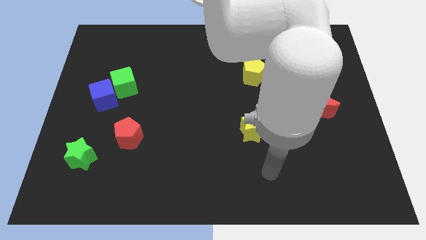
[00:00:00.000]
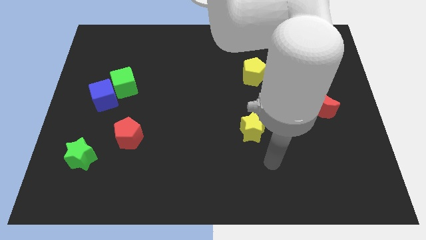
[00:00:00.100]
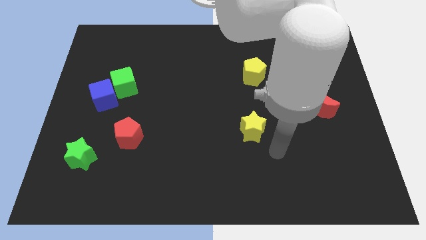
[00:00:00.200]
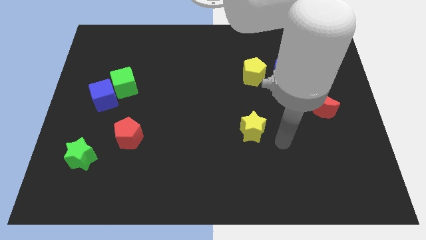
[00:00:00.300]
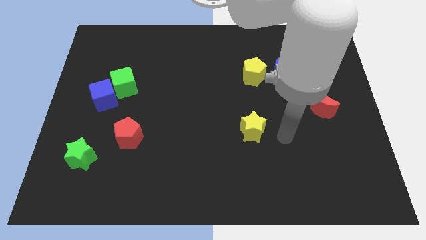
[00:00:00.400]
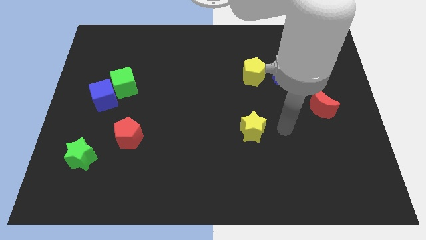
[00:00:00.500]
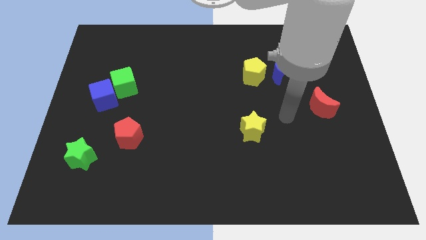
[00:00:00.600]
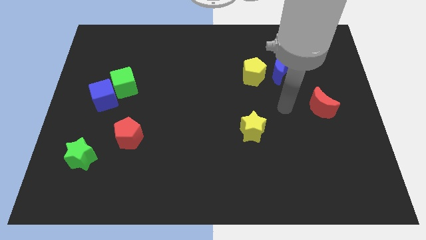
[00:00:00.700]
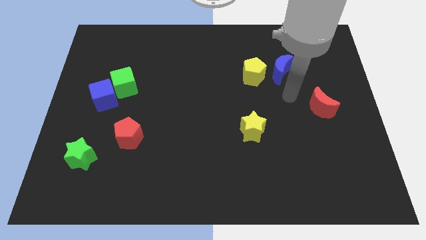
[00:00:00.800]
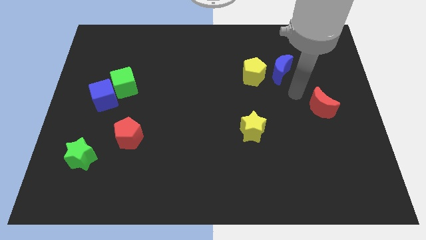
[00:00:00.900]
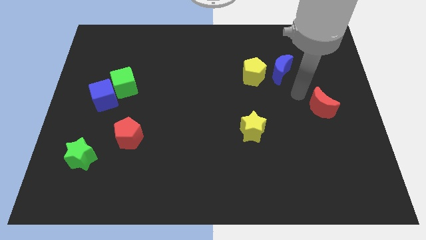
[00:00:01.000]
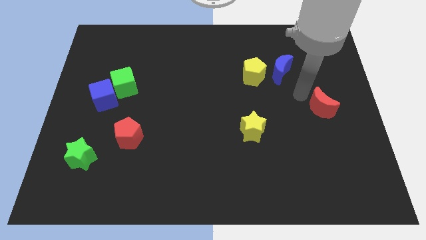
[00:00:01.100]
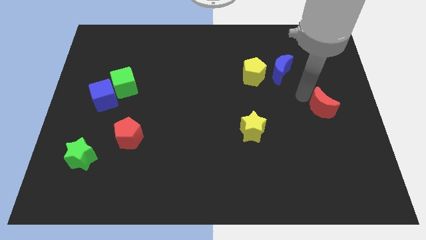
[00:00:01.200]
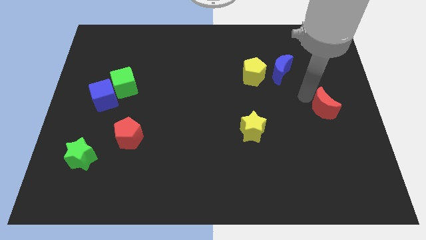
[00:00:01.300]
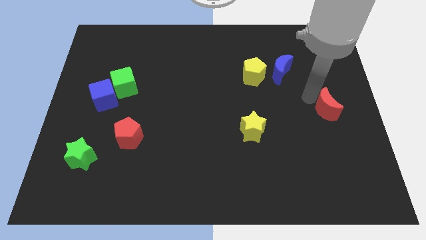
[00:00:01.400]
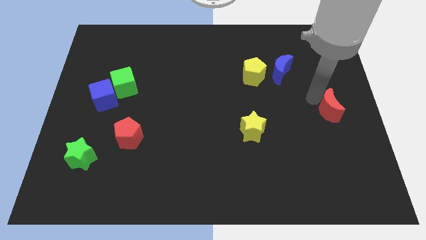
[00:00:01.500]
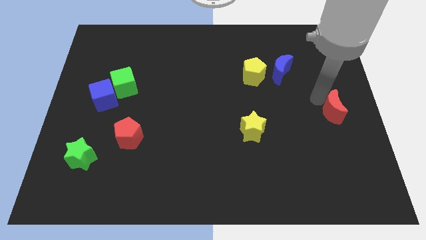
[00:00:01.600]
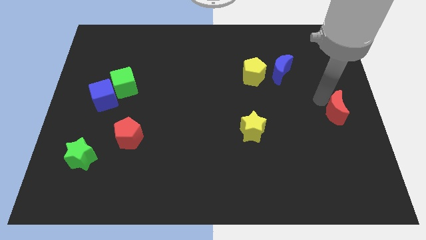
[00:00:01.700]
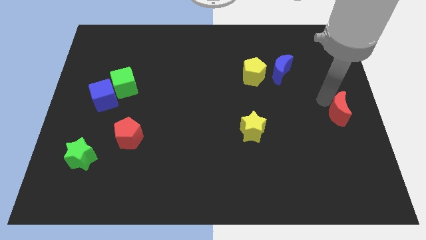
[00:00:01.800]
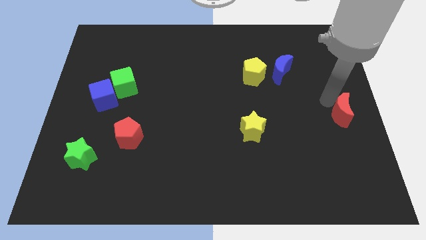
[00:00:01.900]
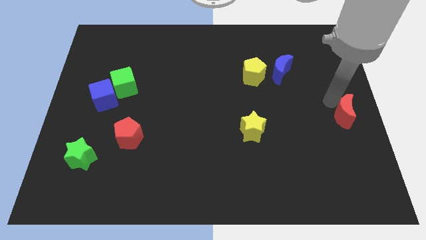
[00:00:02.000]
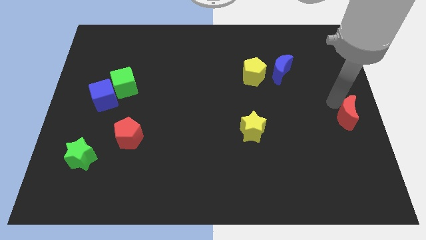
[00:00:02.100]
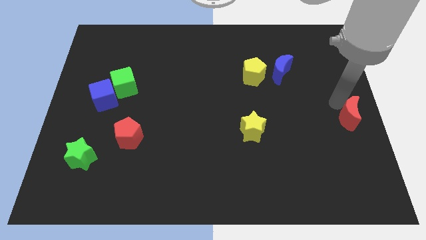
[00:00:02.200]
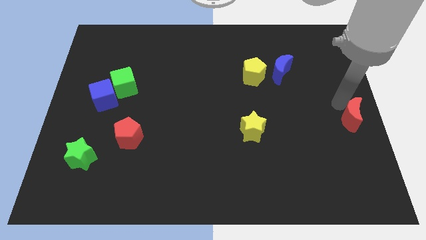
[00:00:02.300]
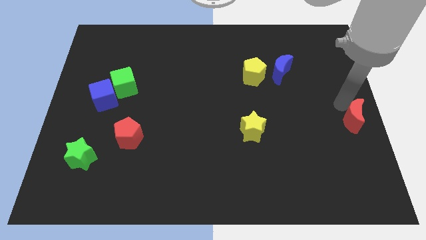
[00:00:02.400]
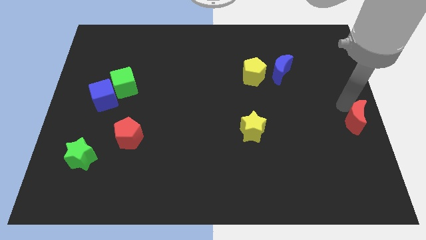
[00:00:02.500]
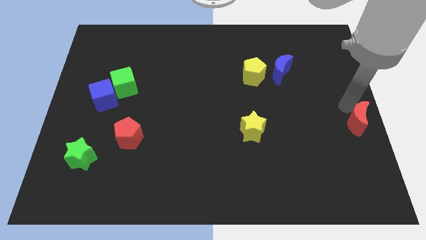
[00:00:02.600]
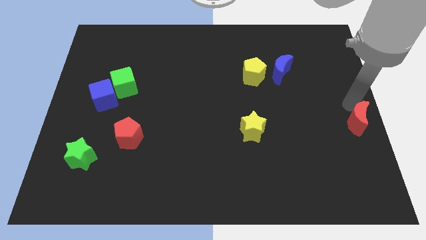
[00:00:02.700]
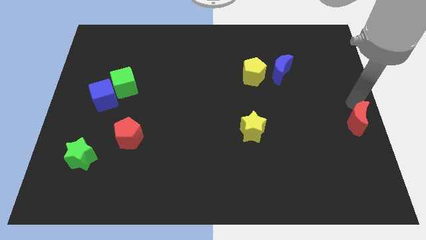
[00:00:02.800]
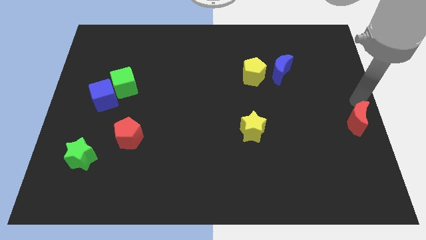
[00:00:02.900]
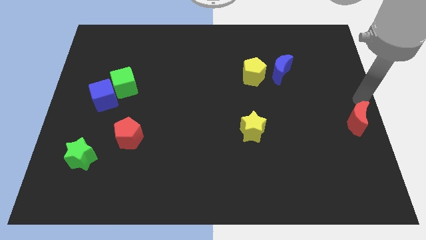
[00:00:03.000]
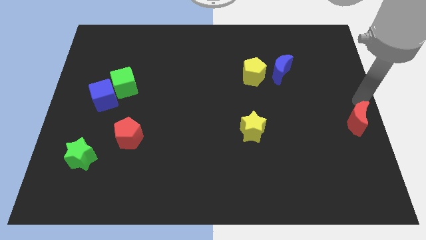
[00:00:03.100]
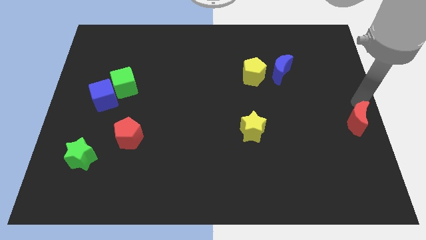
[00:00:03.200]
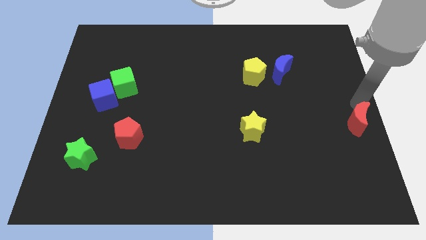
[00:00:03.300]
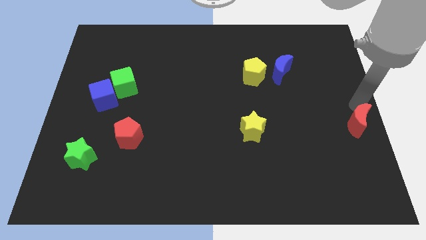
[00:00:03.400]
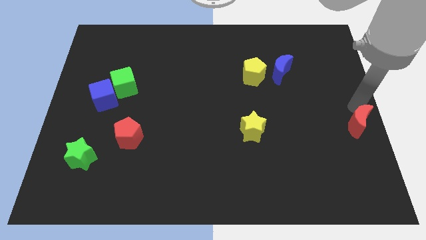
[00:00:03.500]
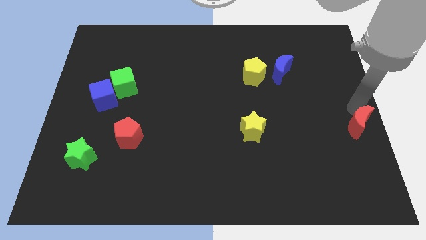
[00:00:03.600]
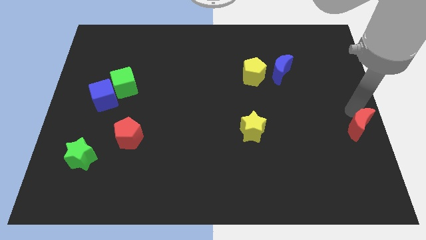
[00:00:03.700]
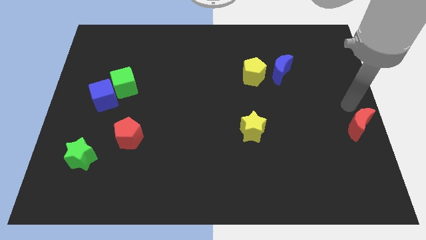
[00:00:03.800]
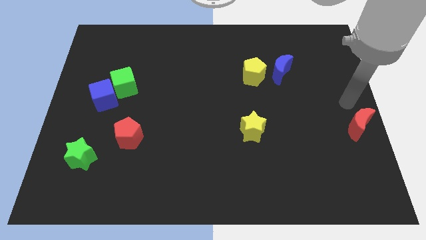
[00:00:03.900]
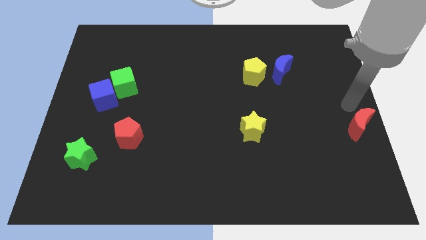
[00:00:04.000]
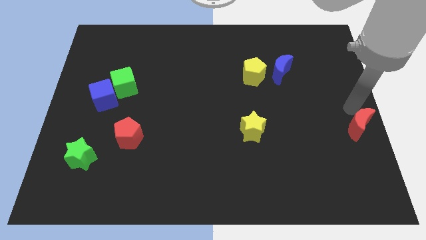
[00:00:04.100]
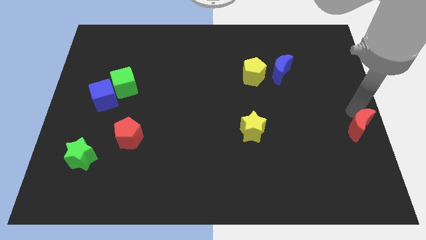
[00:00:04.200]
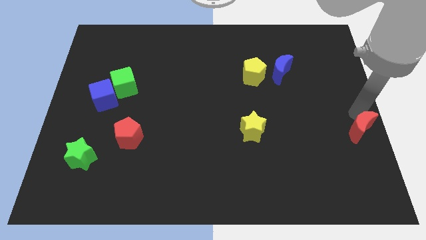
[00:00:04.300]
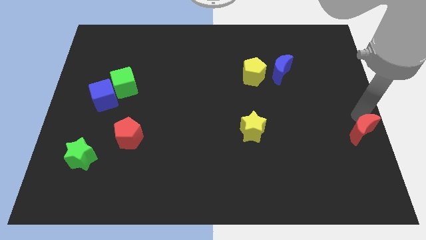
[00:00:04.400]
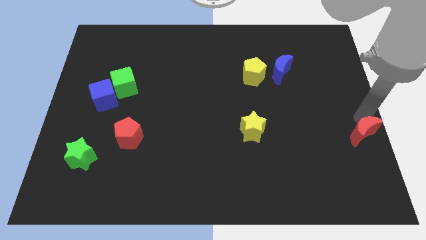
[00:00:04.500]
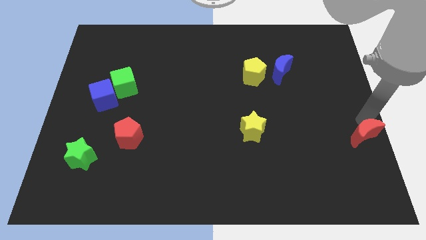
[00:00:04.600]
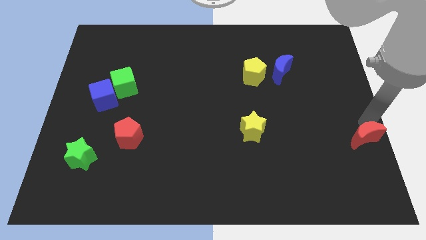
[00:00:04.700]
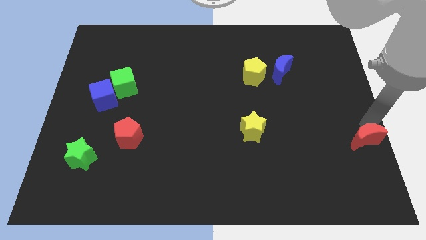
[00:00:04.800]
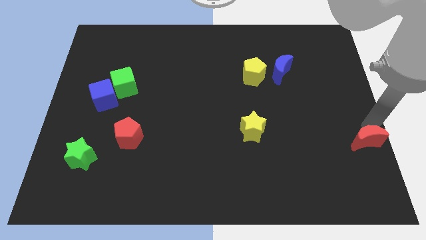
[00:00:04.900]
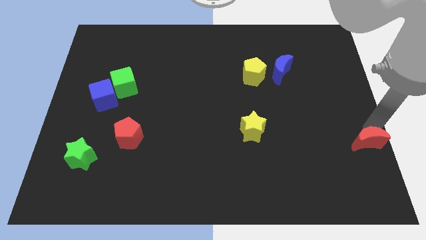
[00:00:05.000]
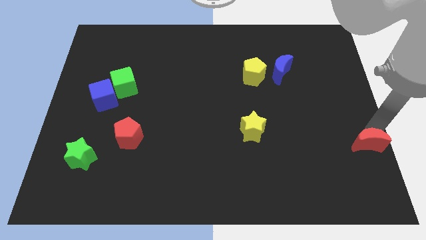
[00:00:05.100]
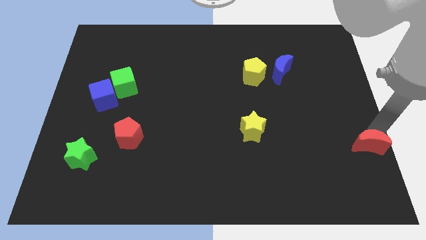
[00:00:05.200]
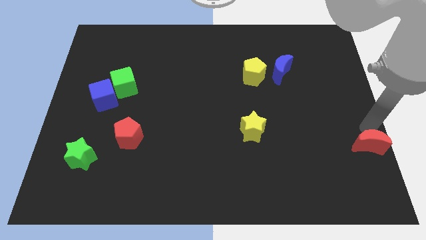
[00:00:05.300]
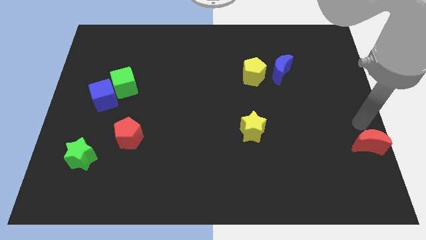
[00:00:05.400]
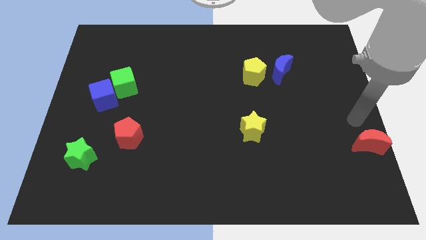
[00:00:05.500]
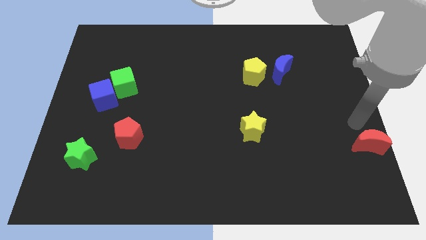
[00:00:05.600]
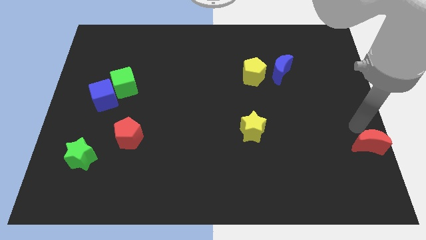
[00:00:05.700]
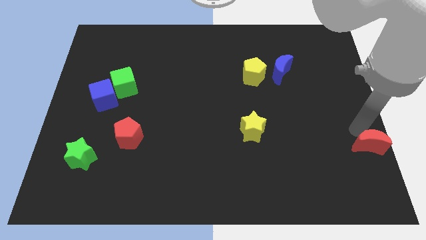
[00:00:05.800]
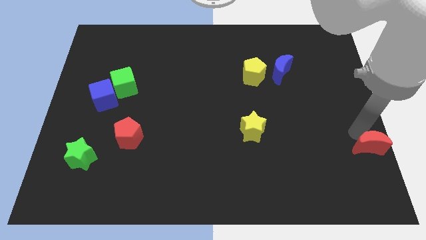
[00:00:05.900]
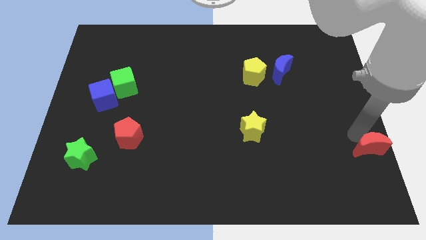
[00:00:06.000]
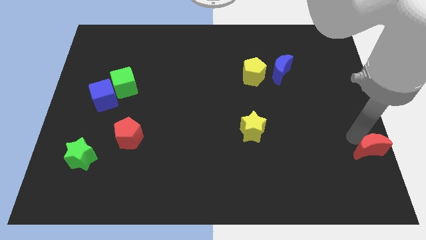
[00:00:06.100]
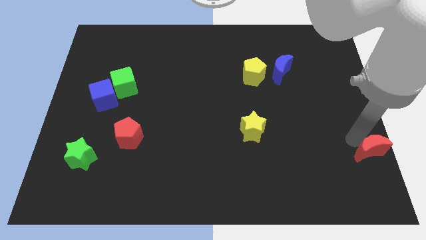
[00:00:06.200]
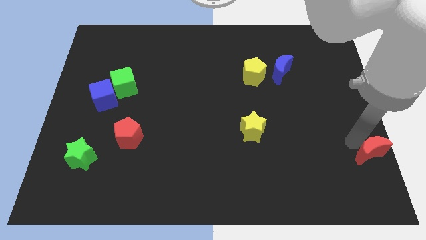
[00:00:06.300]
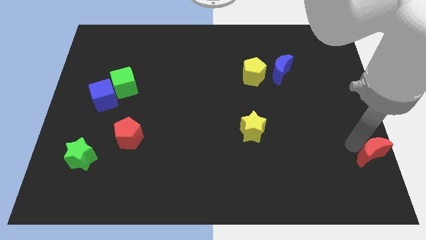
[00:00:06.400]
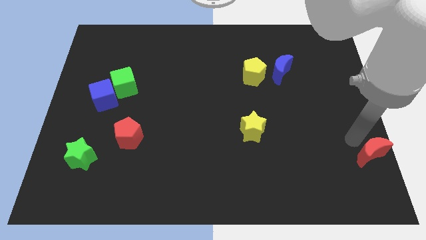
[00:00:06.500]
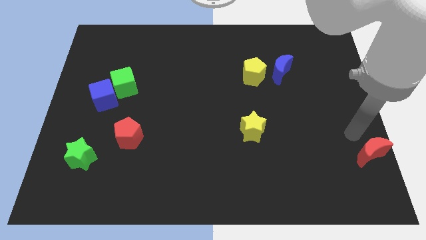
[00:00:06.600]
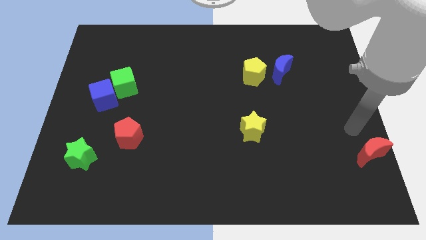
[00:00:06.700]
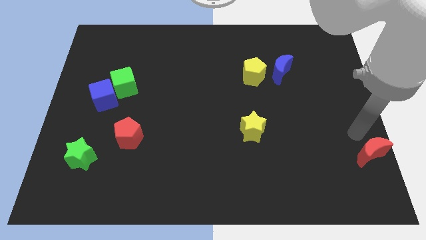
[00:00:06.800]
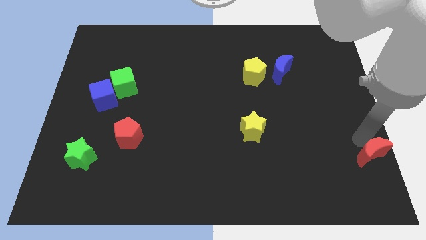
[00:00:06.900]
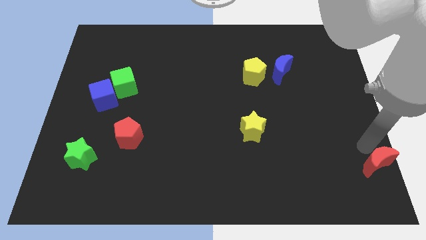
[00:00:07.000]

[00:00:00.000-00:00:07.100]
move the red moon to the bottom right of the board

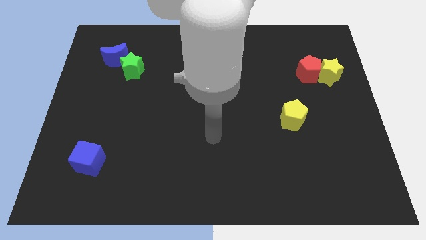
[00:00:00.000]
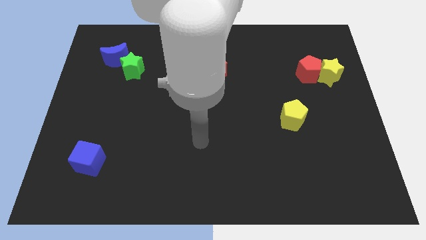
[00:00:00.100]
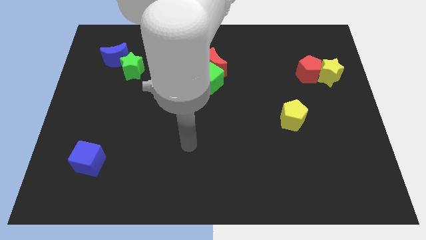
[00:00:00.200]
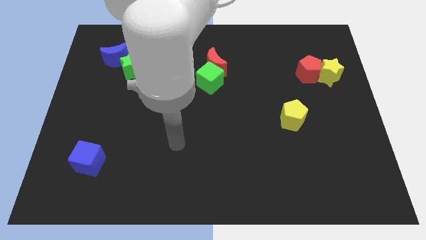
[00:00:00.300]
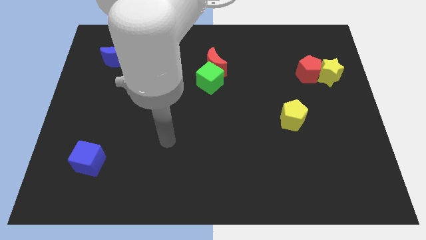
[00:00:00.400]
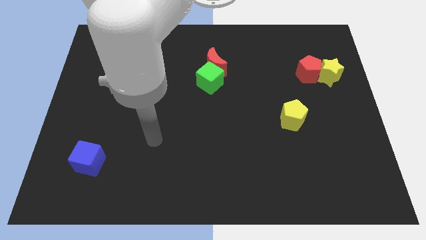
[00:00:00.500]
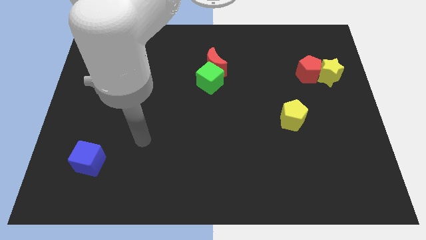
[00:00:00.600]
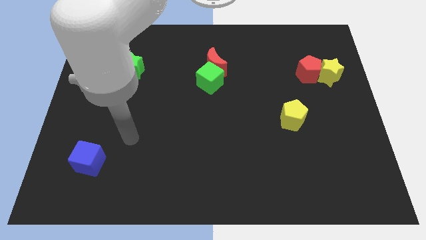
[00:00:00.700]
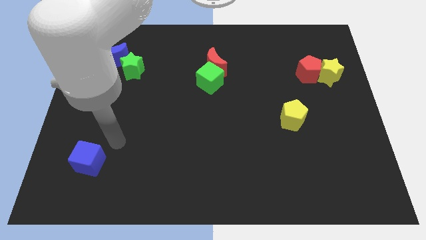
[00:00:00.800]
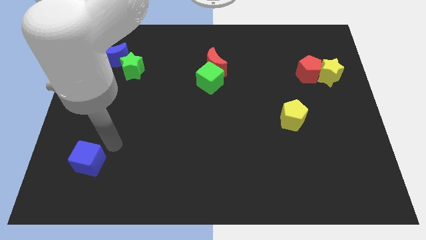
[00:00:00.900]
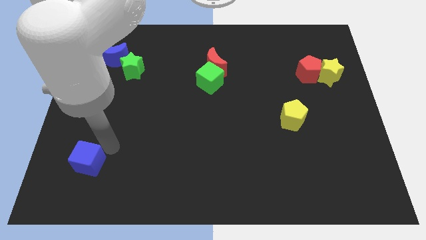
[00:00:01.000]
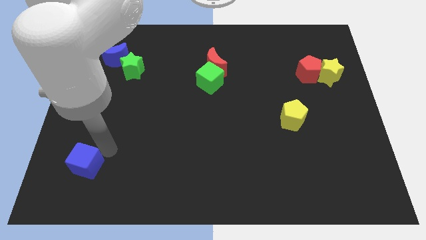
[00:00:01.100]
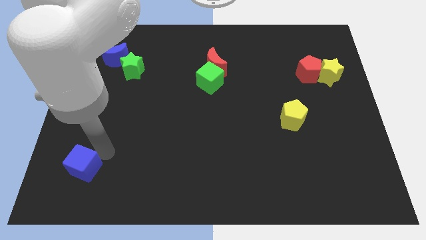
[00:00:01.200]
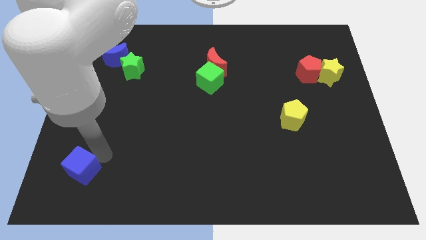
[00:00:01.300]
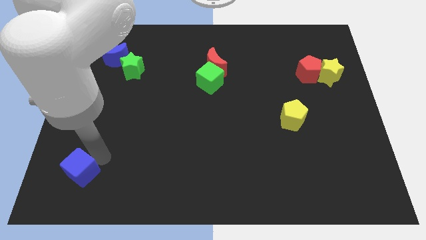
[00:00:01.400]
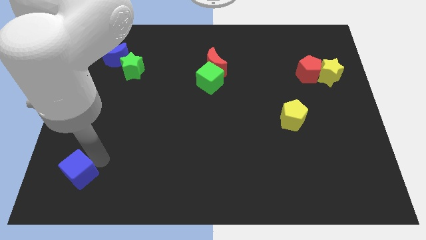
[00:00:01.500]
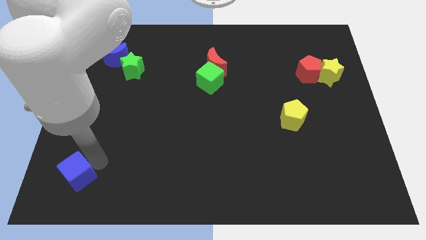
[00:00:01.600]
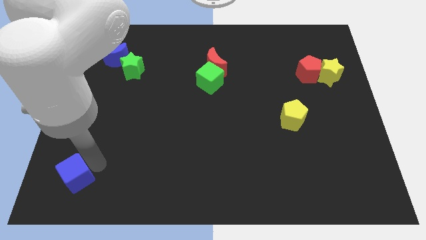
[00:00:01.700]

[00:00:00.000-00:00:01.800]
move the blue cube to the bottom left
